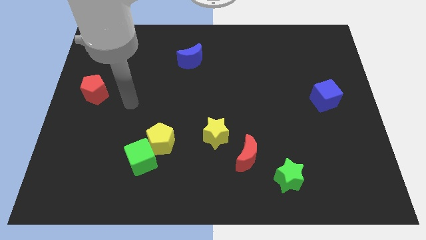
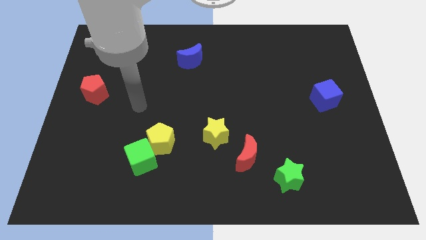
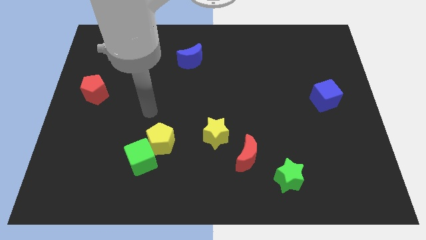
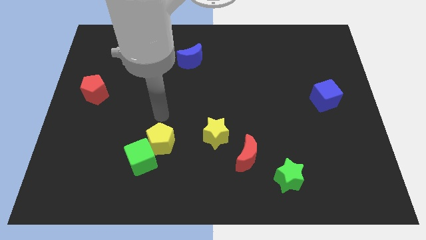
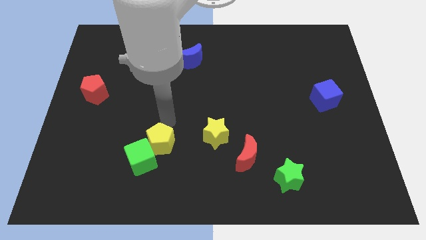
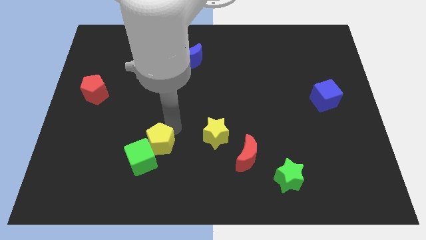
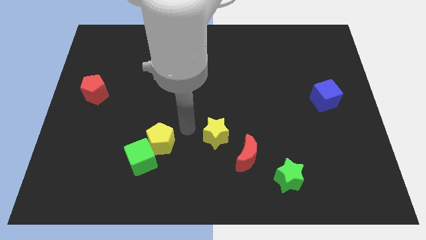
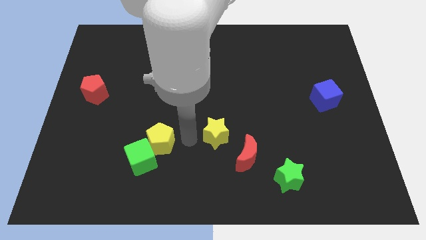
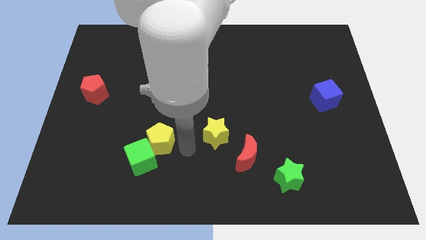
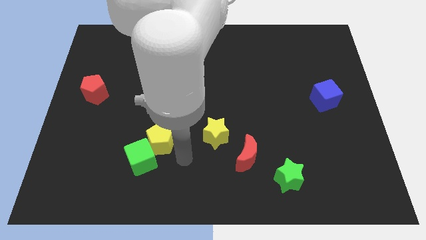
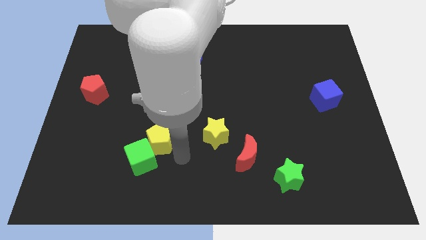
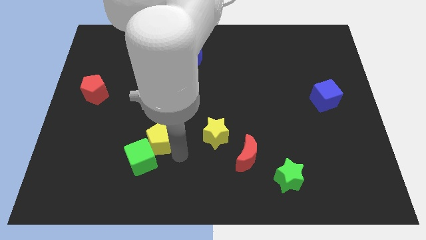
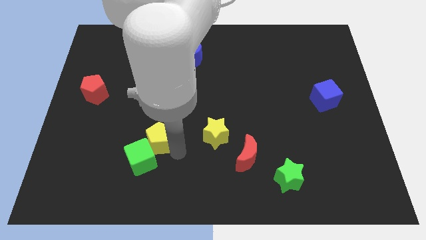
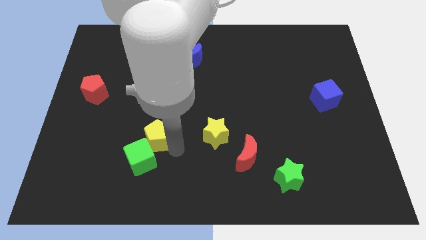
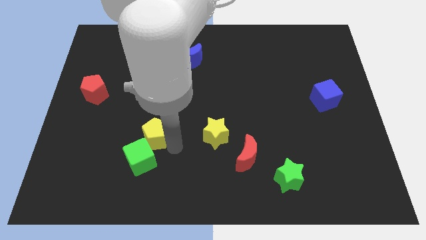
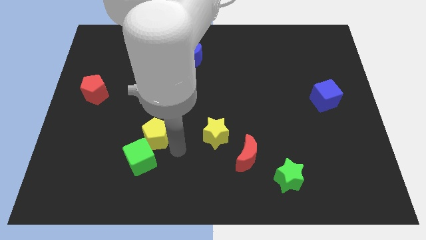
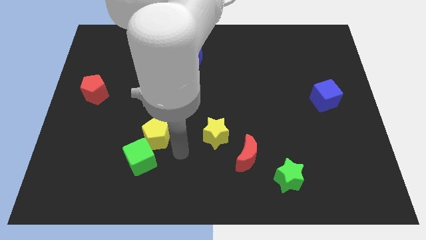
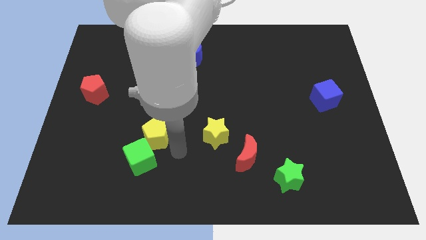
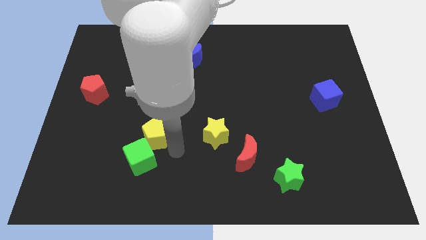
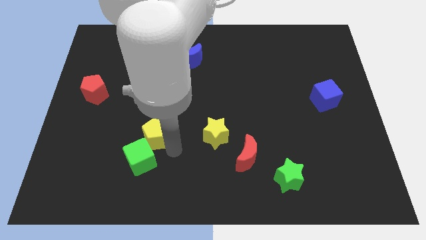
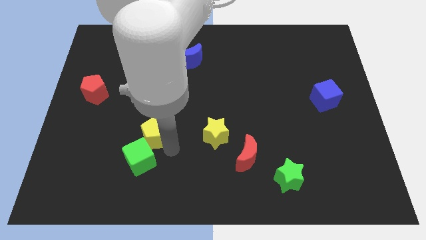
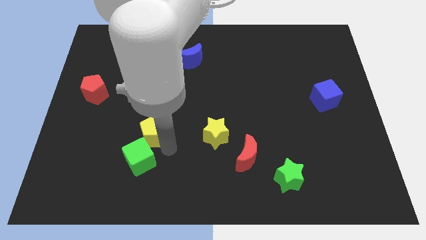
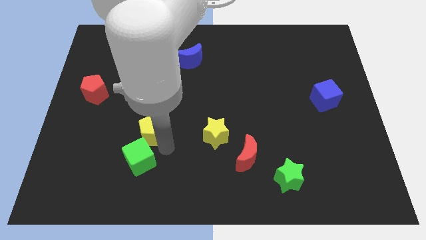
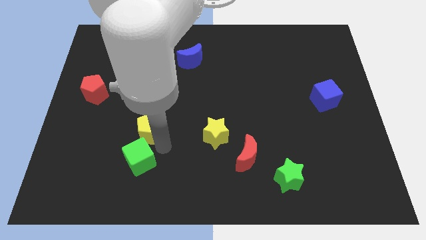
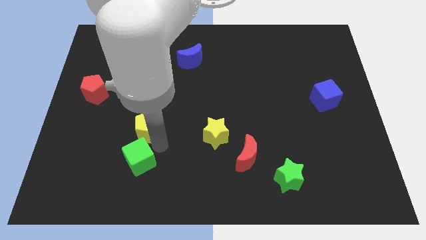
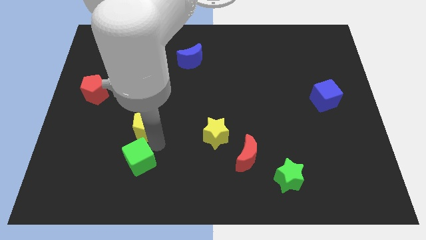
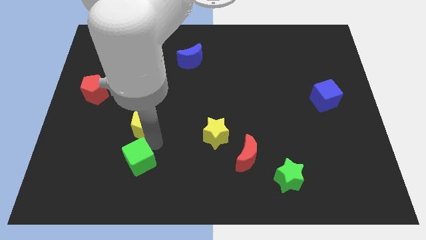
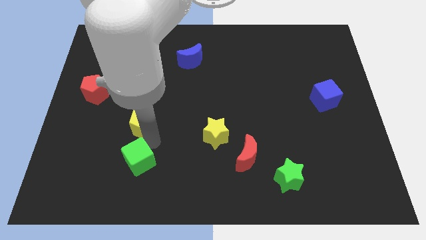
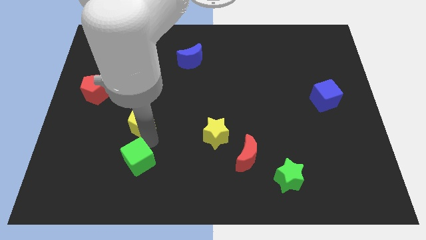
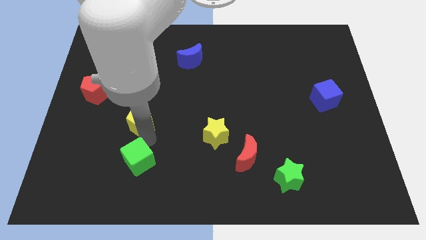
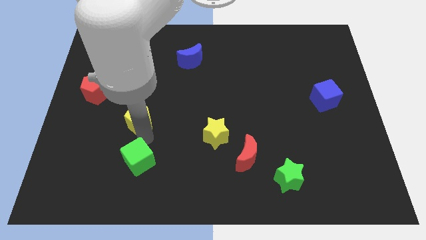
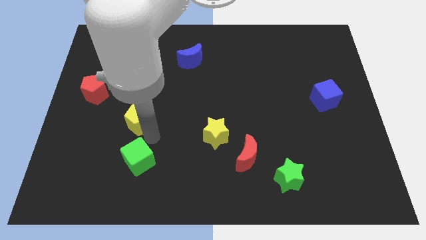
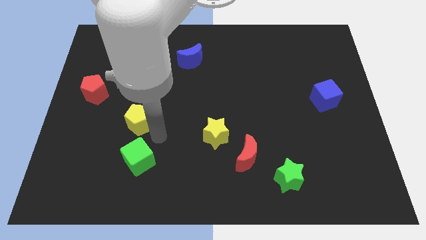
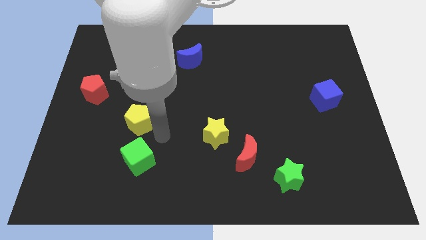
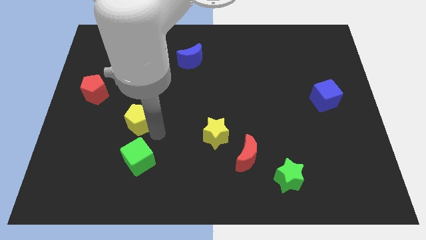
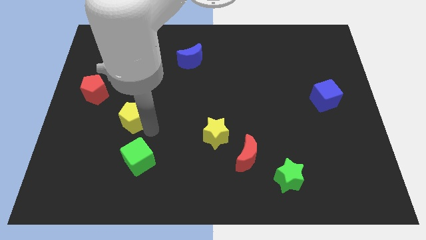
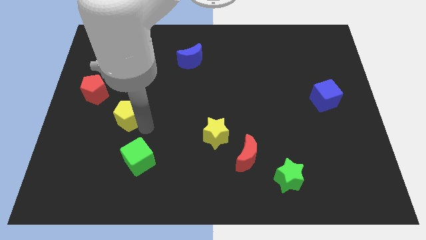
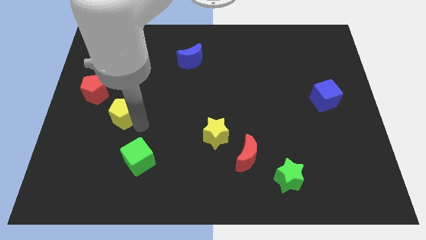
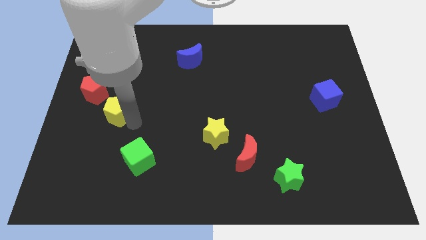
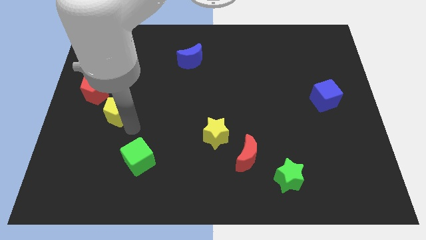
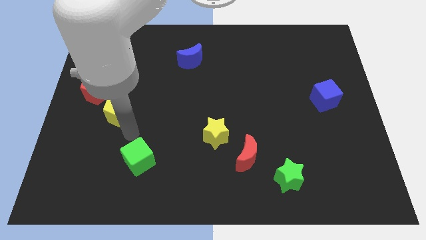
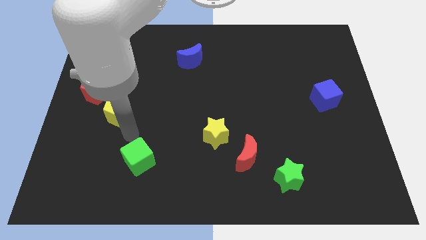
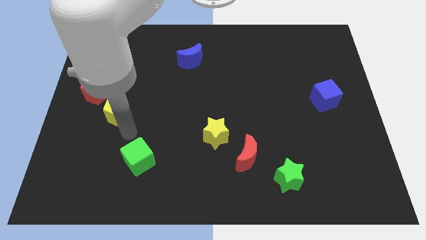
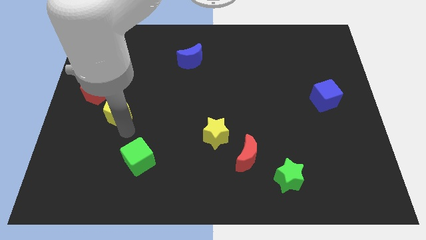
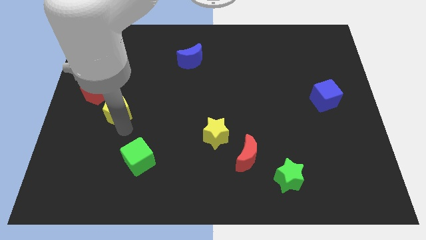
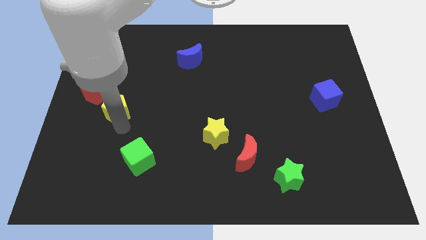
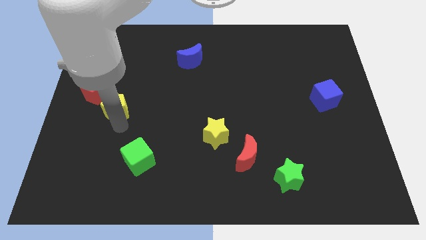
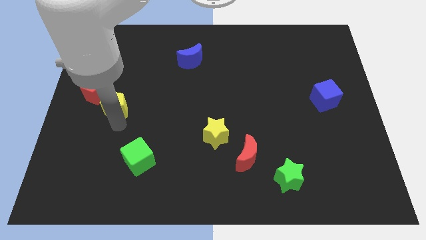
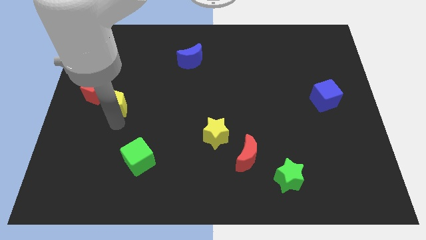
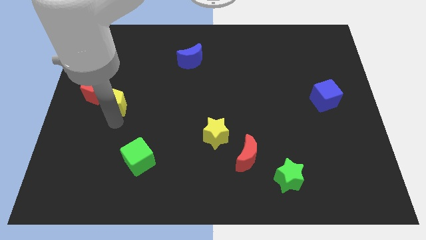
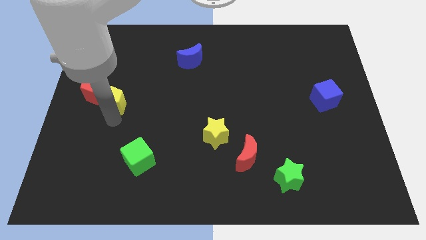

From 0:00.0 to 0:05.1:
put the yellow pentagon towards the red pentagon

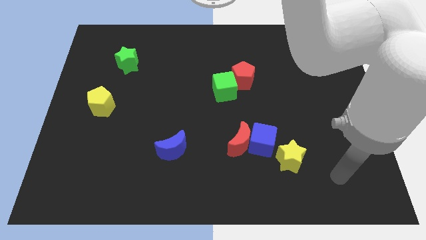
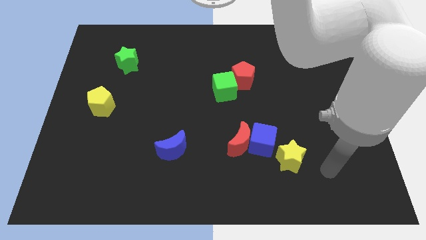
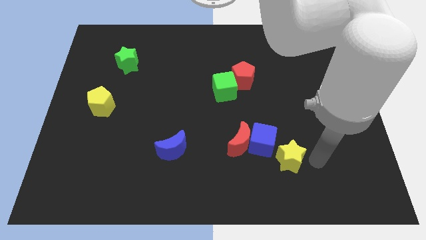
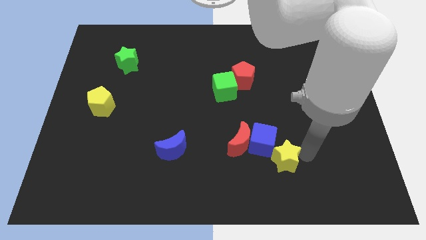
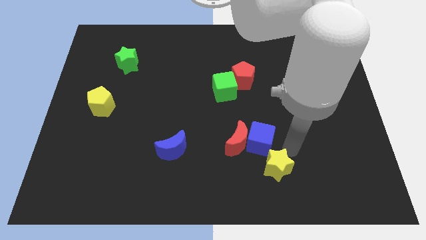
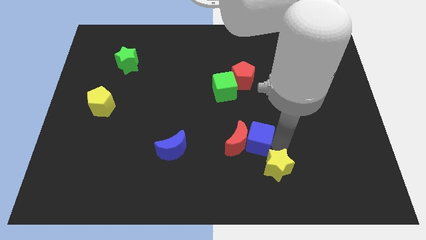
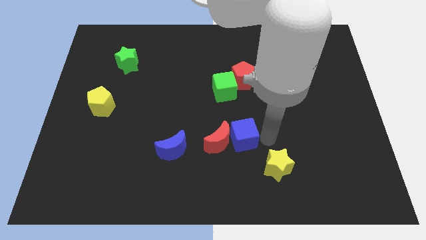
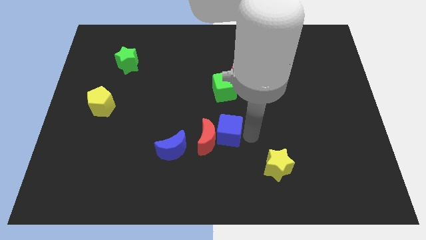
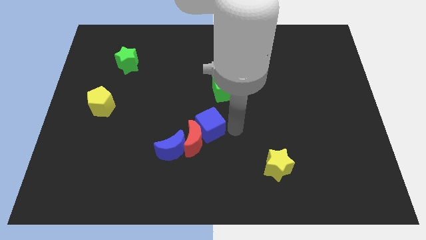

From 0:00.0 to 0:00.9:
push the red moon close to the blue moon

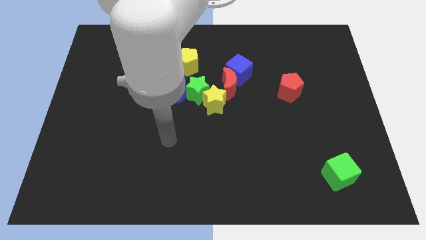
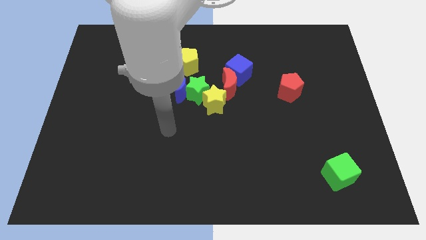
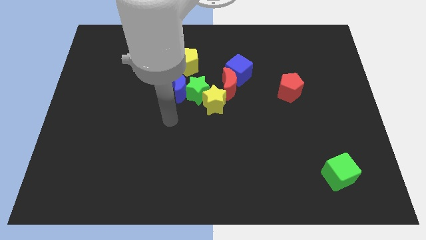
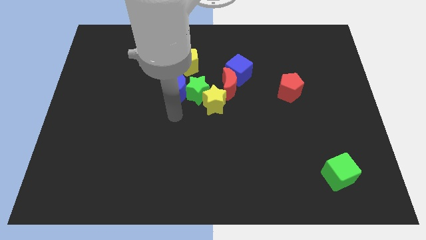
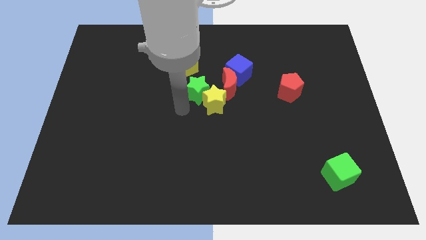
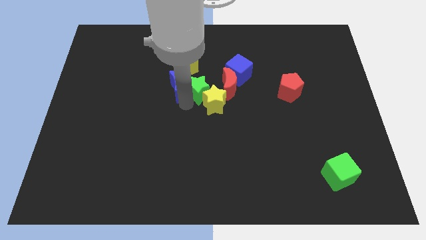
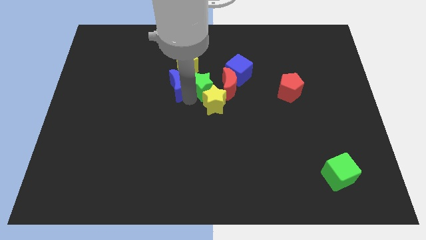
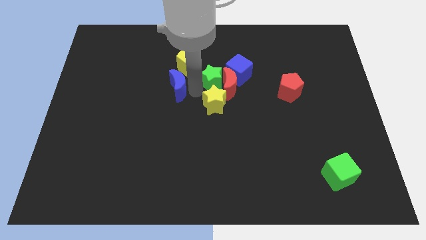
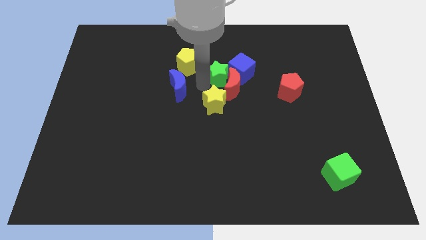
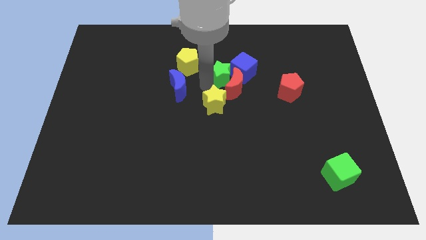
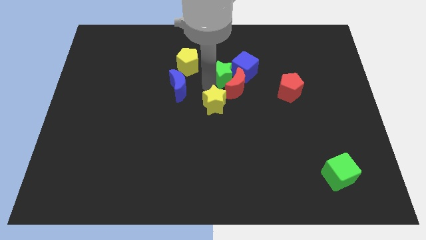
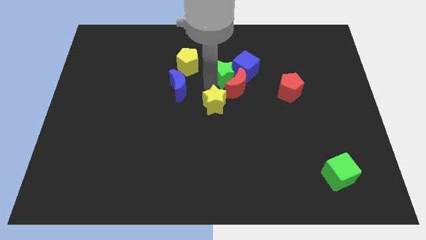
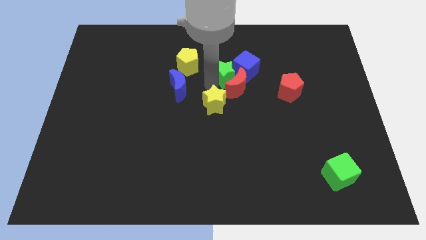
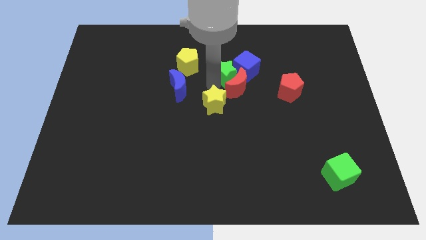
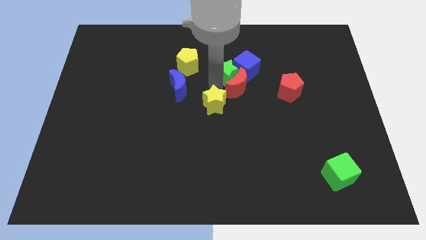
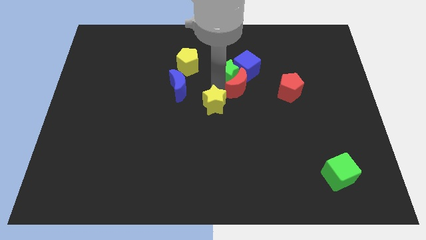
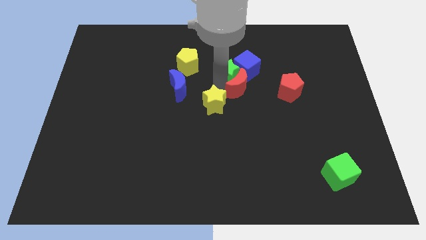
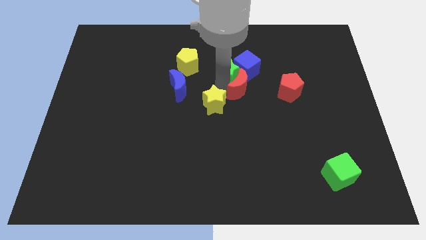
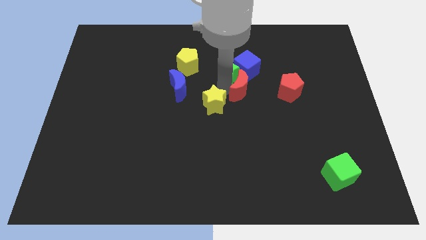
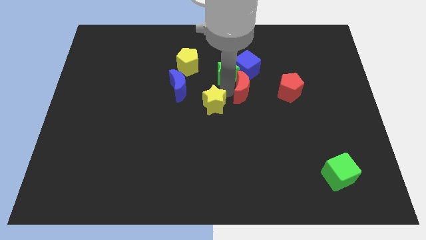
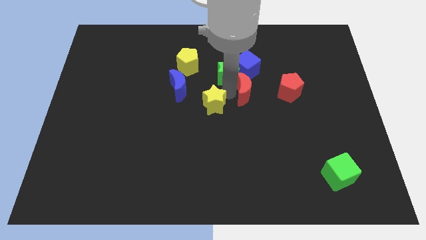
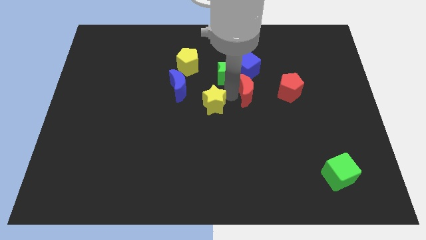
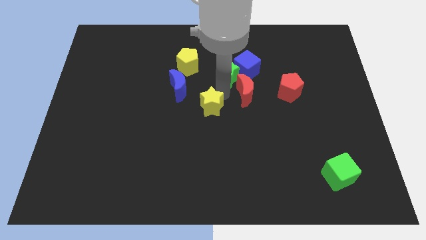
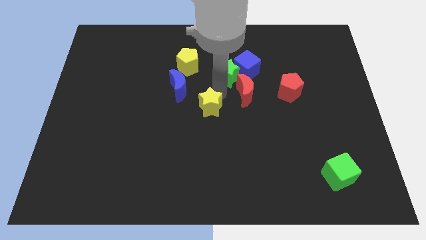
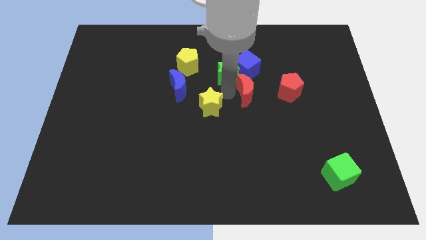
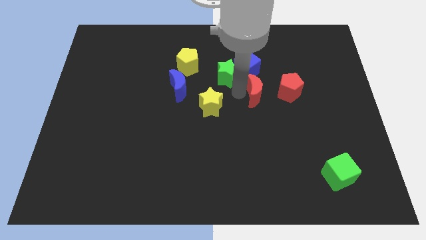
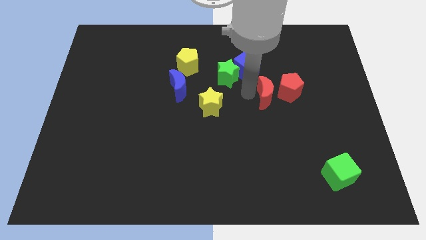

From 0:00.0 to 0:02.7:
push the red moon to the red pentagon
